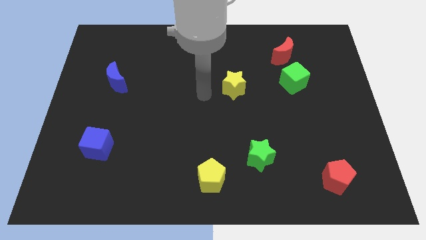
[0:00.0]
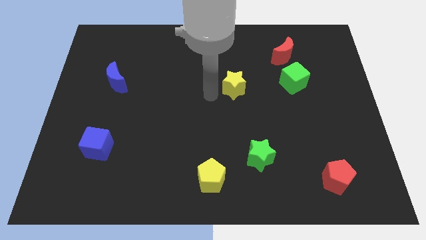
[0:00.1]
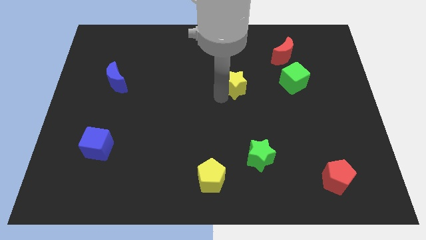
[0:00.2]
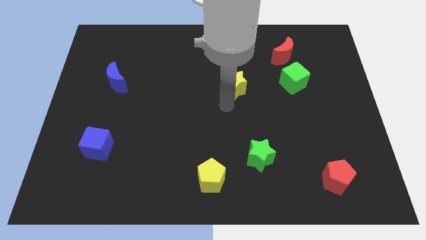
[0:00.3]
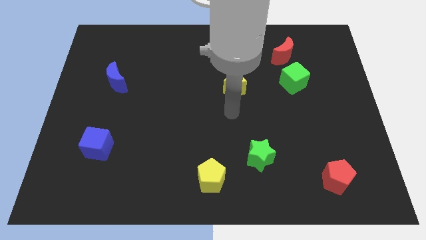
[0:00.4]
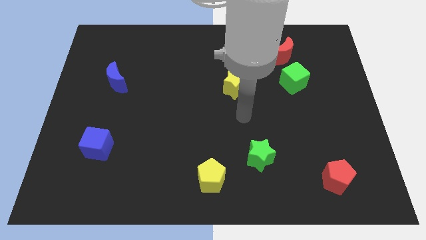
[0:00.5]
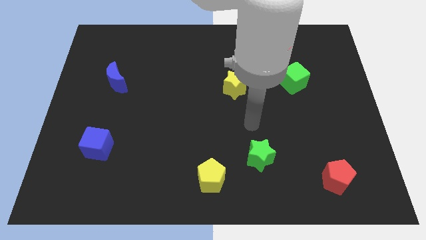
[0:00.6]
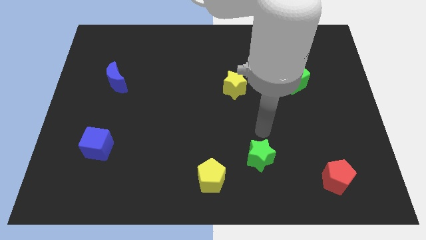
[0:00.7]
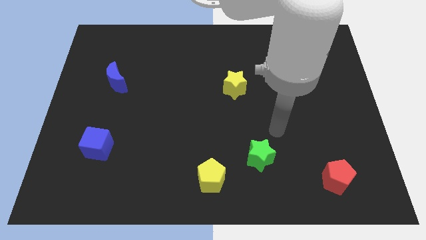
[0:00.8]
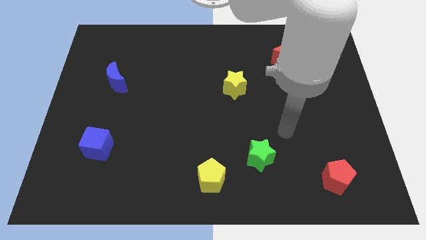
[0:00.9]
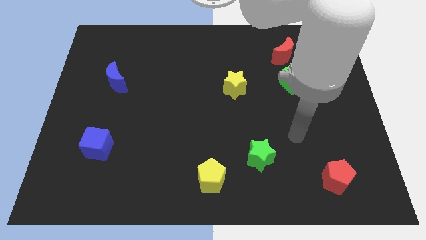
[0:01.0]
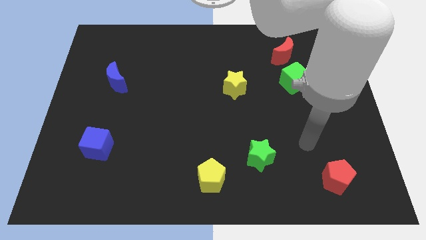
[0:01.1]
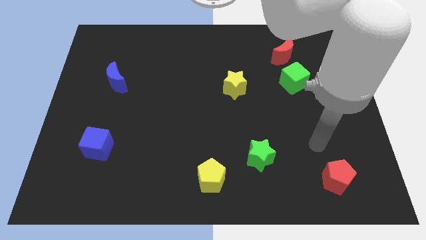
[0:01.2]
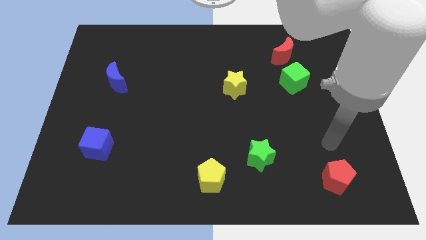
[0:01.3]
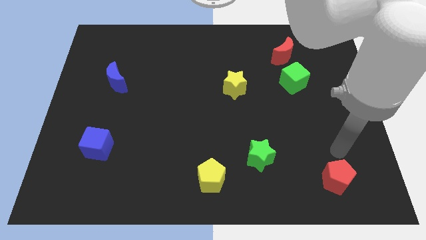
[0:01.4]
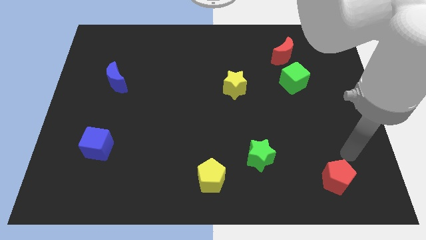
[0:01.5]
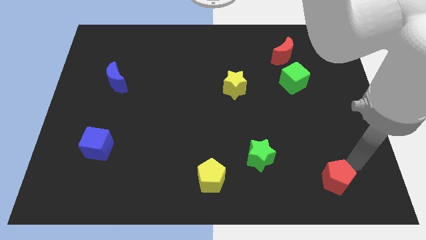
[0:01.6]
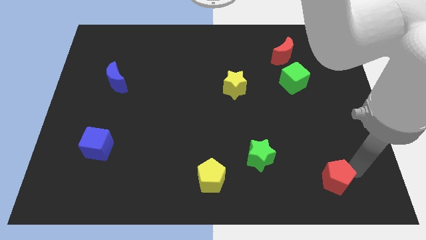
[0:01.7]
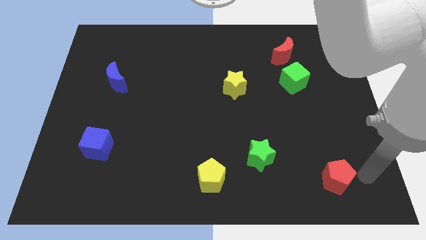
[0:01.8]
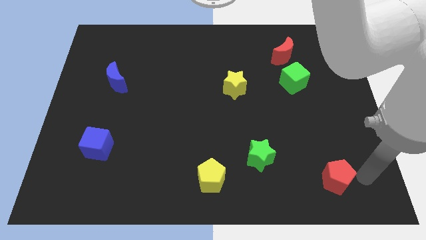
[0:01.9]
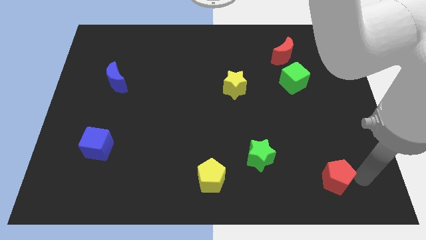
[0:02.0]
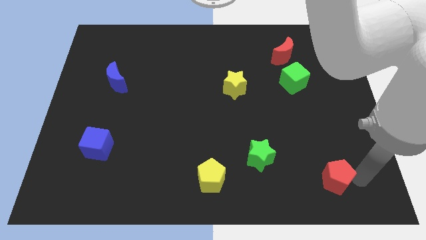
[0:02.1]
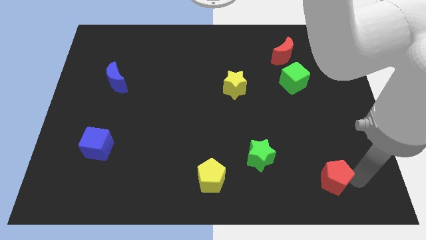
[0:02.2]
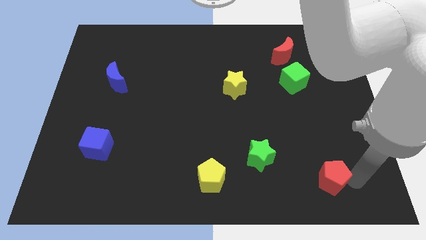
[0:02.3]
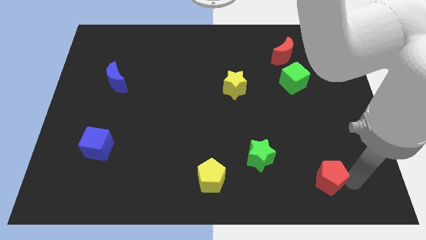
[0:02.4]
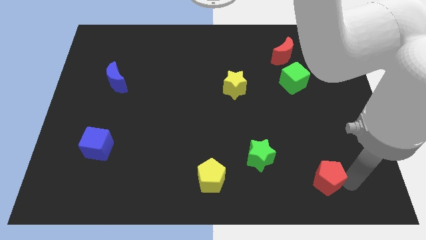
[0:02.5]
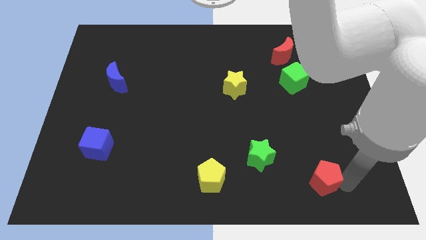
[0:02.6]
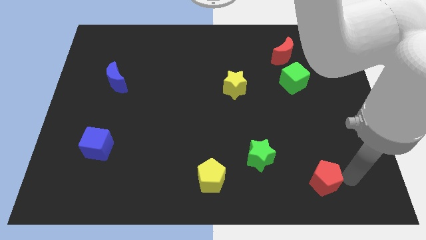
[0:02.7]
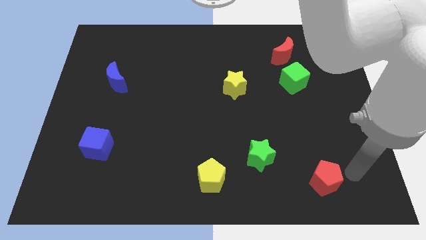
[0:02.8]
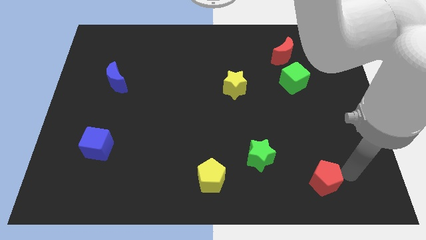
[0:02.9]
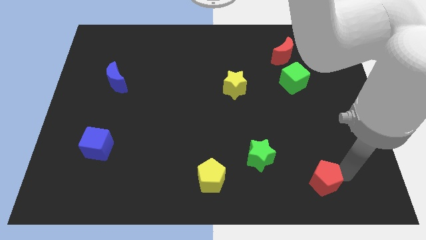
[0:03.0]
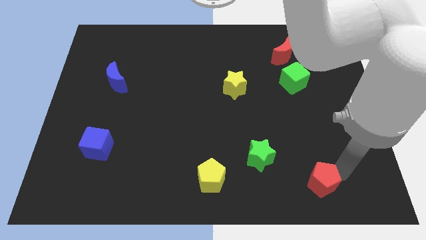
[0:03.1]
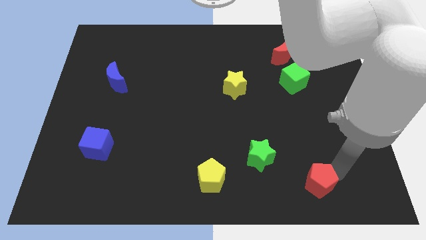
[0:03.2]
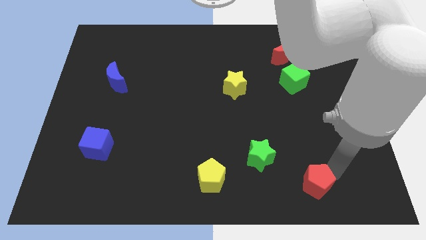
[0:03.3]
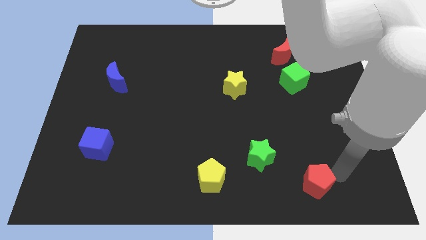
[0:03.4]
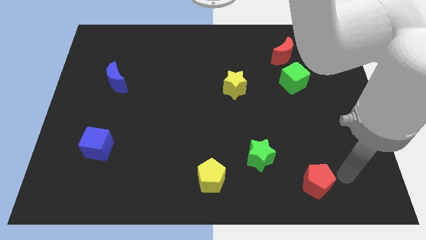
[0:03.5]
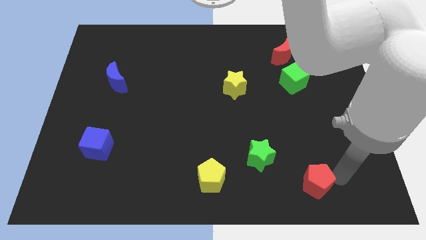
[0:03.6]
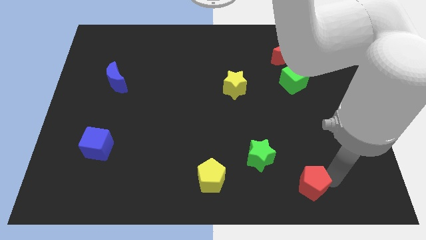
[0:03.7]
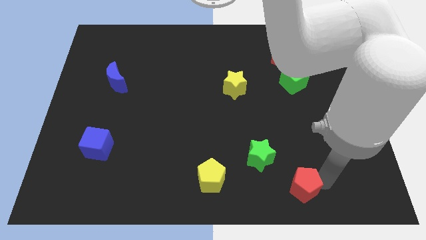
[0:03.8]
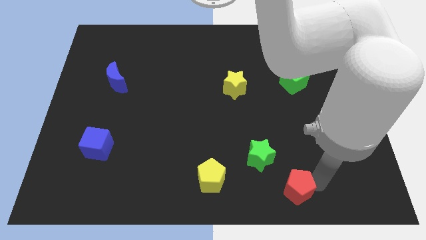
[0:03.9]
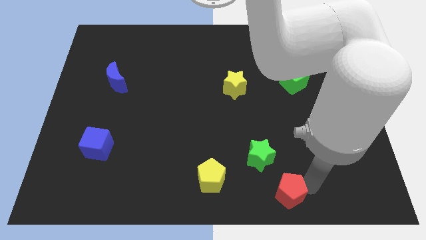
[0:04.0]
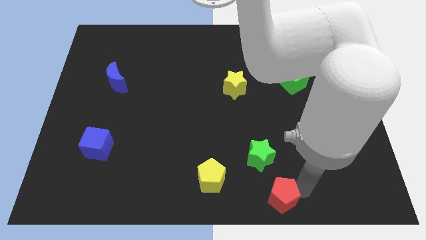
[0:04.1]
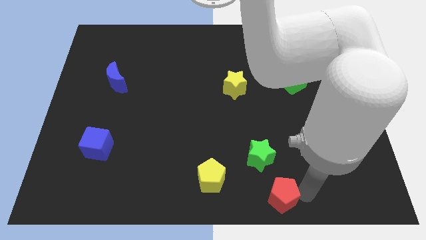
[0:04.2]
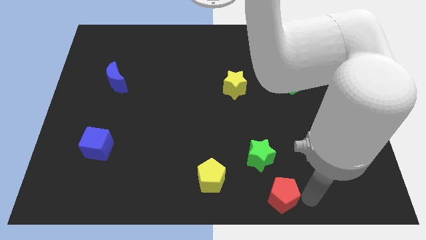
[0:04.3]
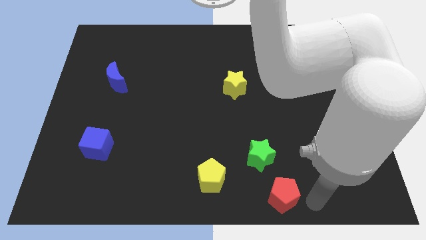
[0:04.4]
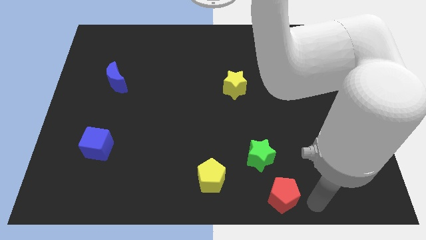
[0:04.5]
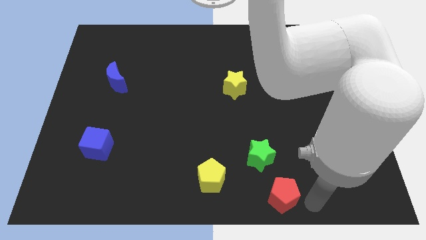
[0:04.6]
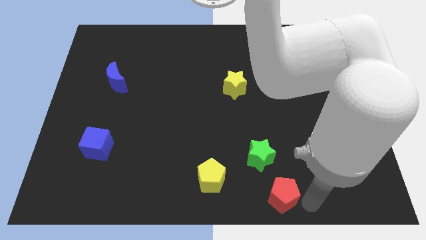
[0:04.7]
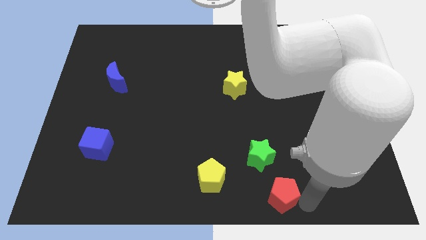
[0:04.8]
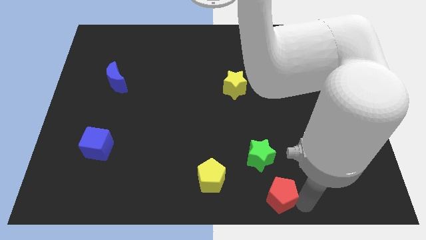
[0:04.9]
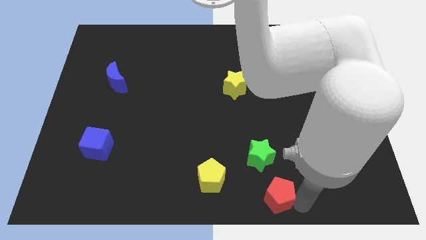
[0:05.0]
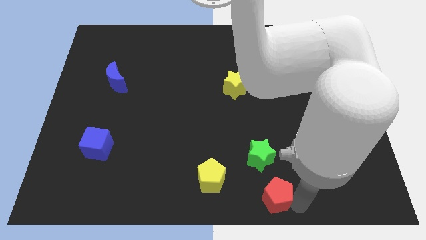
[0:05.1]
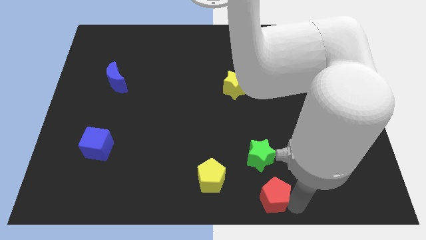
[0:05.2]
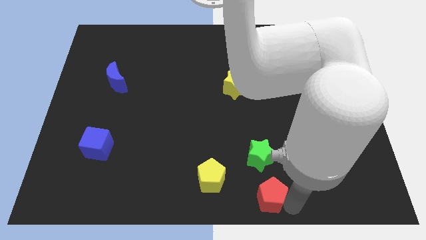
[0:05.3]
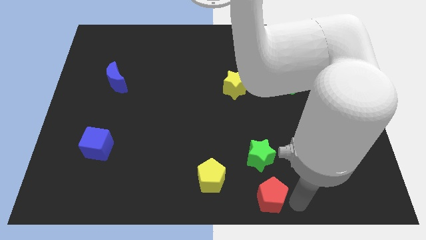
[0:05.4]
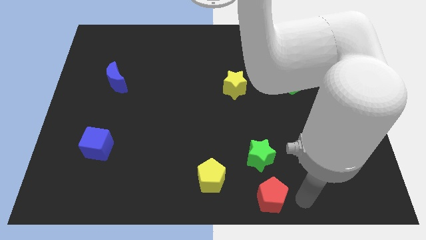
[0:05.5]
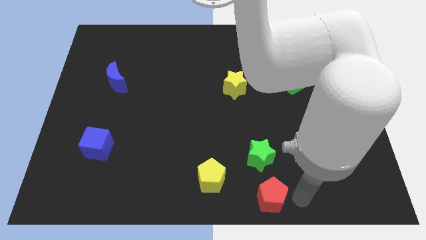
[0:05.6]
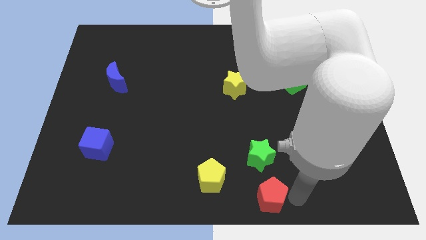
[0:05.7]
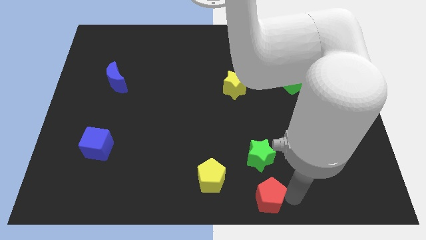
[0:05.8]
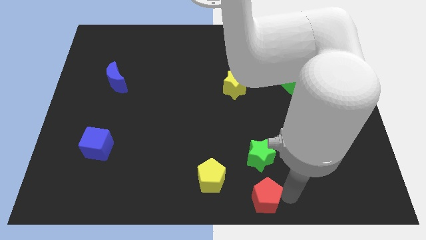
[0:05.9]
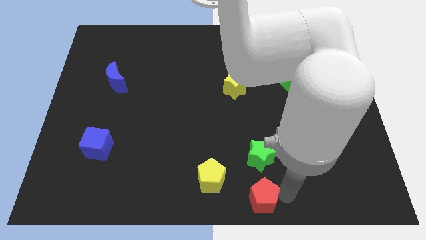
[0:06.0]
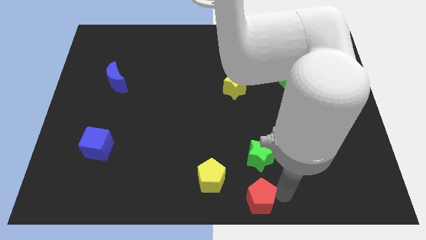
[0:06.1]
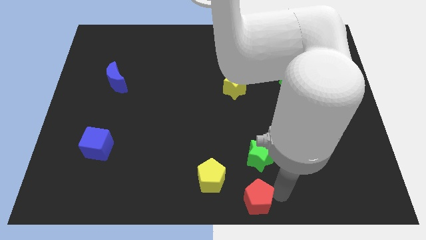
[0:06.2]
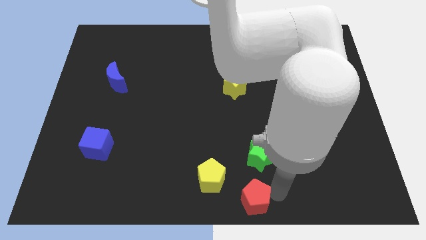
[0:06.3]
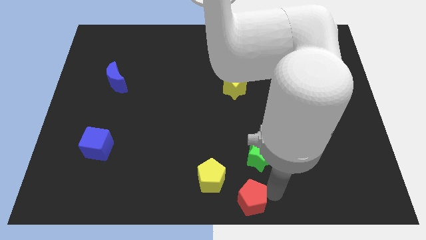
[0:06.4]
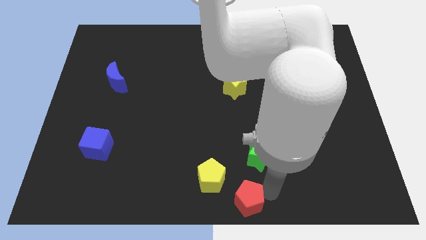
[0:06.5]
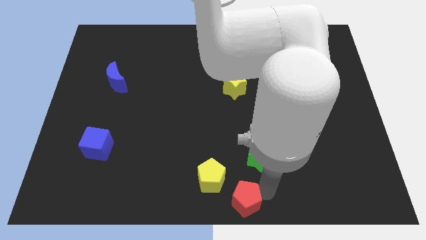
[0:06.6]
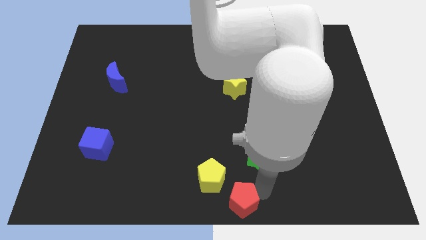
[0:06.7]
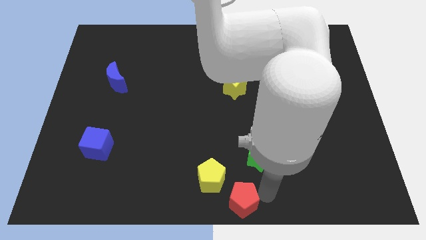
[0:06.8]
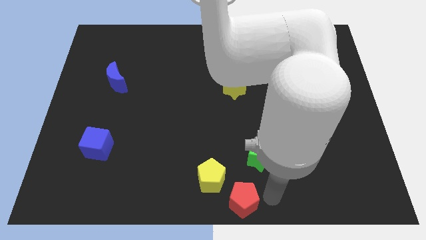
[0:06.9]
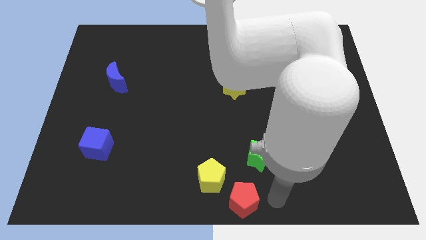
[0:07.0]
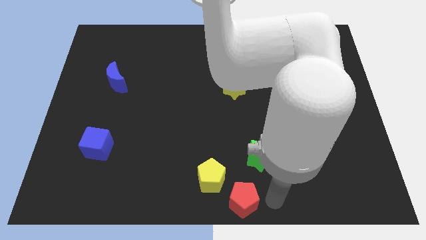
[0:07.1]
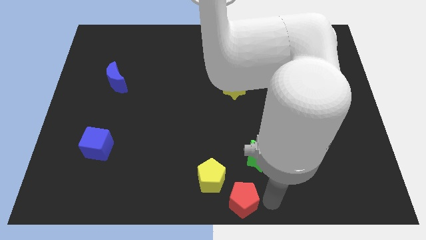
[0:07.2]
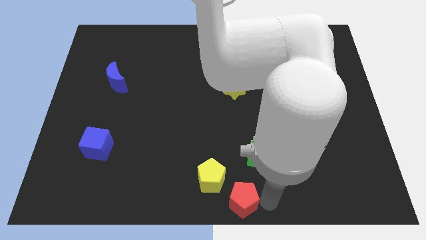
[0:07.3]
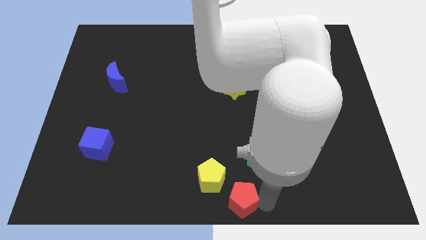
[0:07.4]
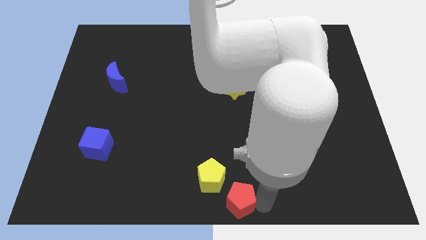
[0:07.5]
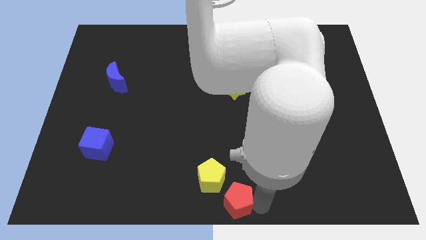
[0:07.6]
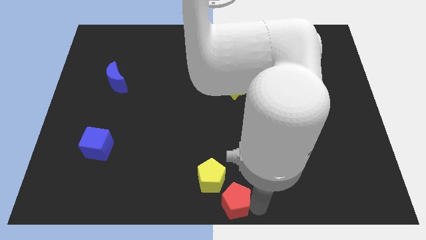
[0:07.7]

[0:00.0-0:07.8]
slide the red pentagon left

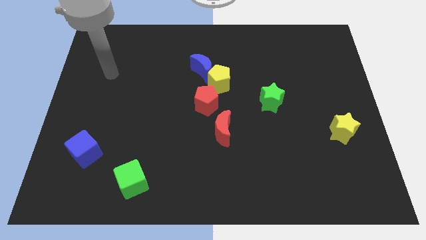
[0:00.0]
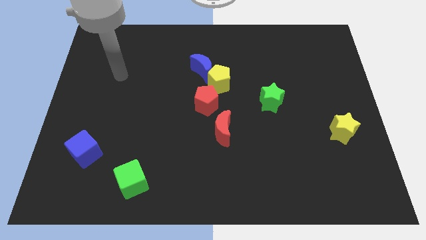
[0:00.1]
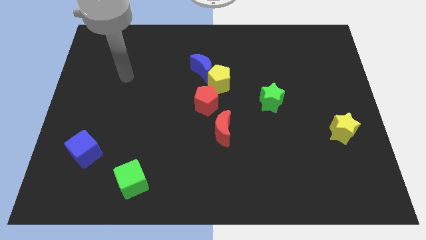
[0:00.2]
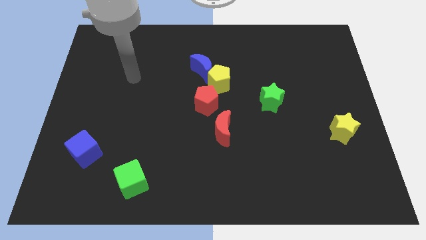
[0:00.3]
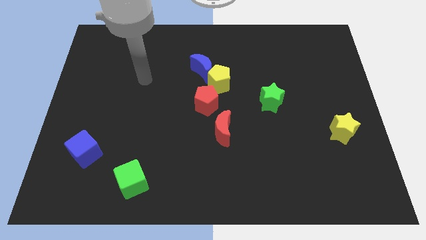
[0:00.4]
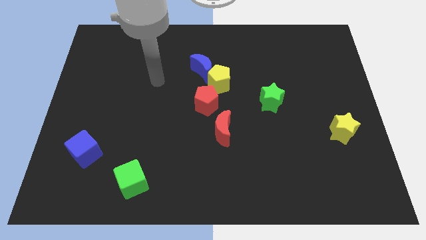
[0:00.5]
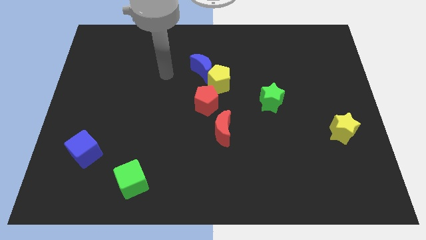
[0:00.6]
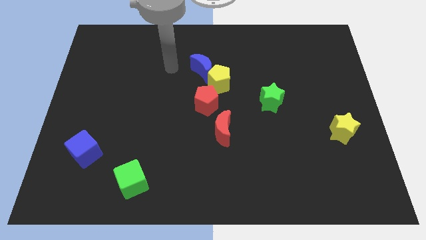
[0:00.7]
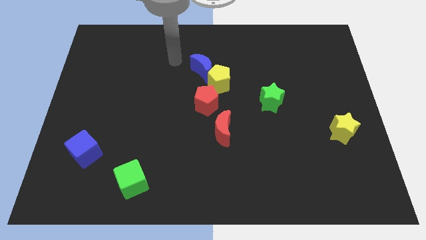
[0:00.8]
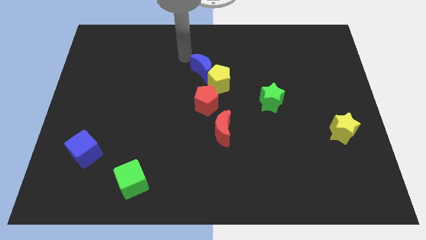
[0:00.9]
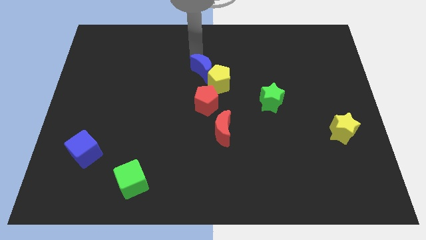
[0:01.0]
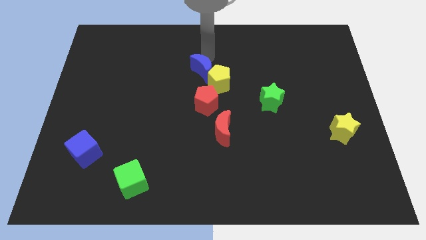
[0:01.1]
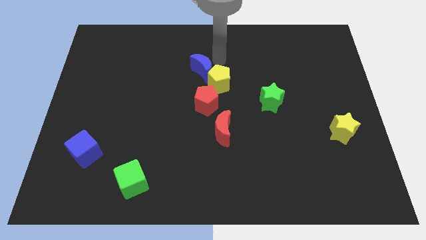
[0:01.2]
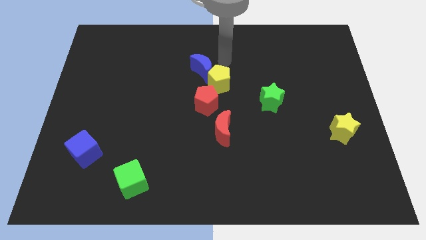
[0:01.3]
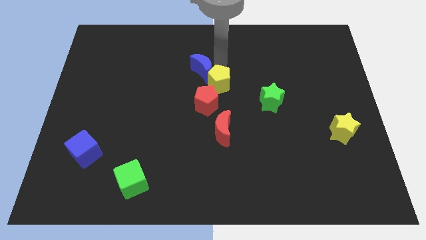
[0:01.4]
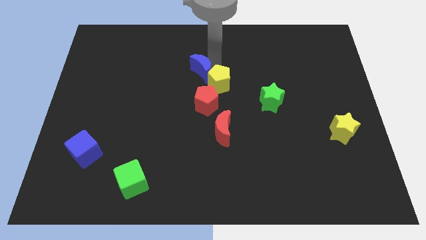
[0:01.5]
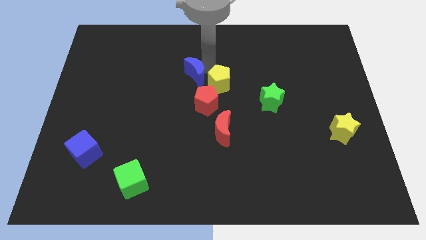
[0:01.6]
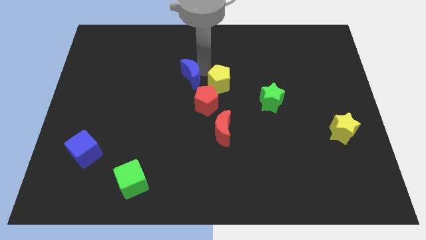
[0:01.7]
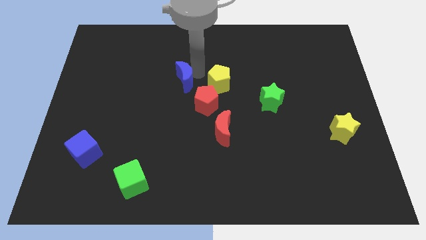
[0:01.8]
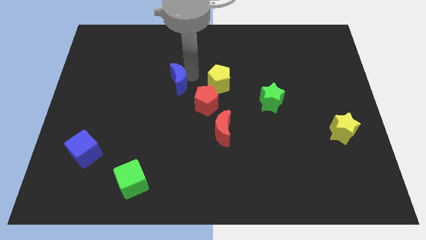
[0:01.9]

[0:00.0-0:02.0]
push the blue moon downwards and left somewhat
